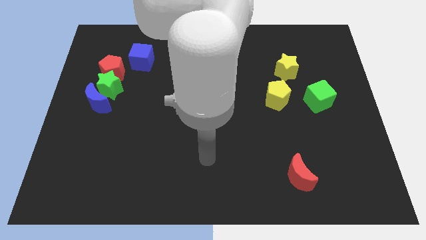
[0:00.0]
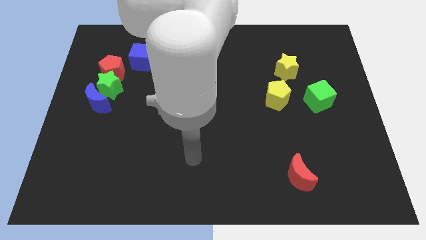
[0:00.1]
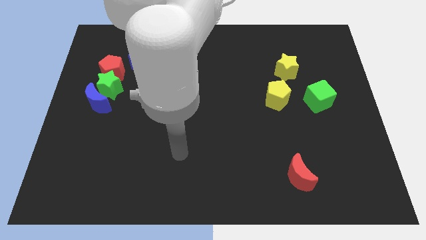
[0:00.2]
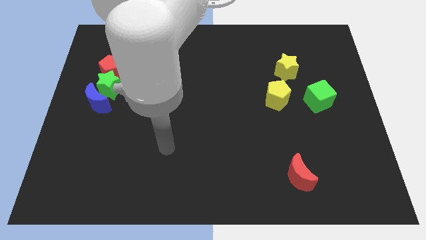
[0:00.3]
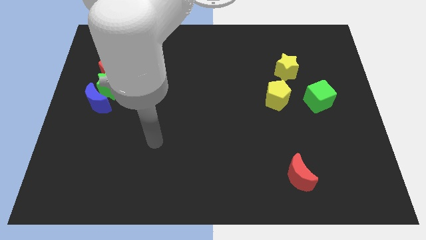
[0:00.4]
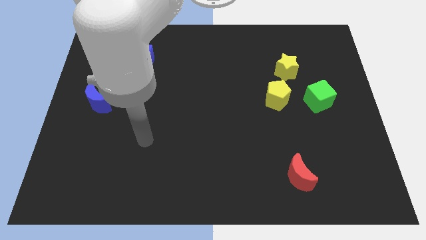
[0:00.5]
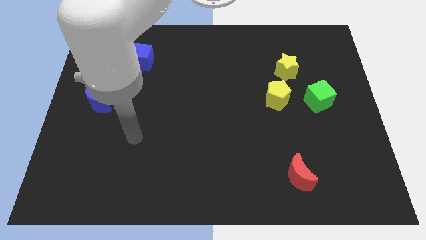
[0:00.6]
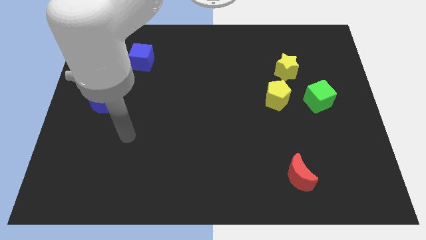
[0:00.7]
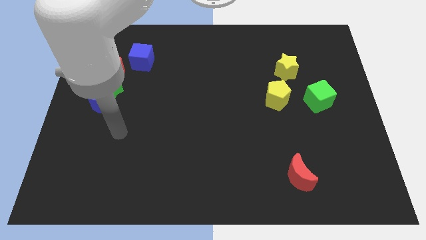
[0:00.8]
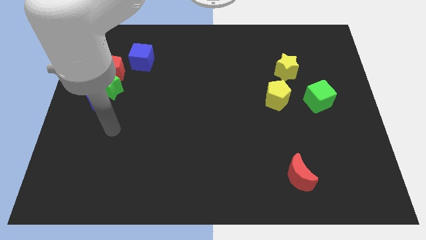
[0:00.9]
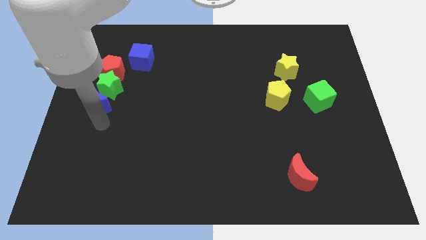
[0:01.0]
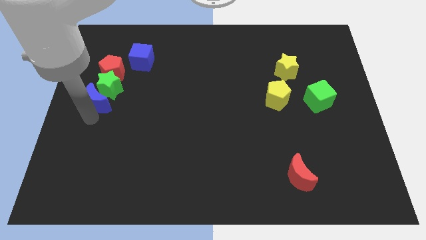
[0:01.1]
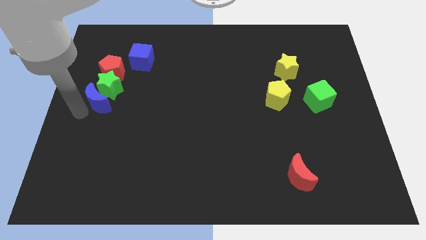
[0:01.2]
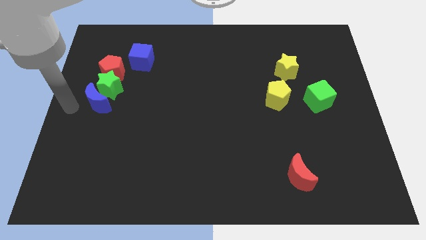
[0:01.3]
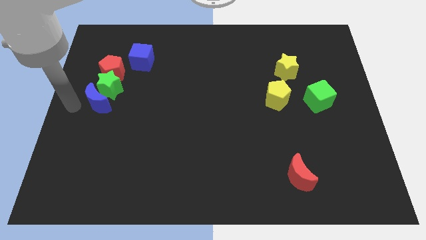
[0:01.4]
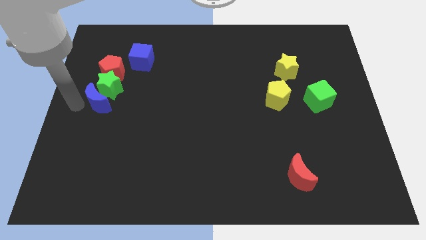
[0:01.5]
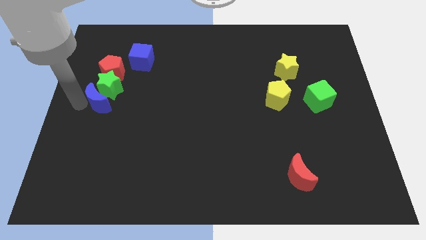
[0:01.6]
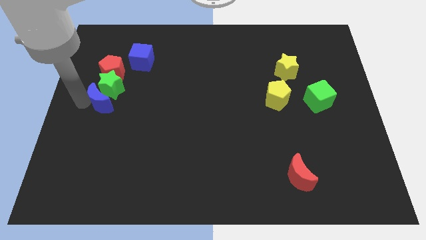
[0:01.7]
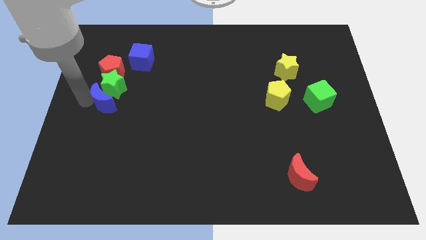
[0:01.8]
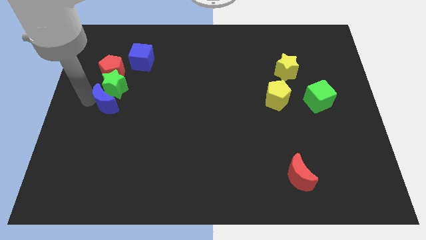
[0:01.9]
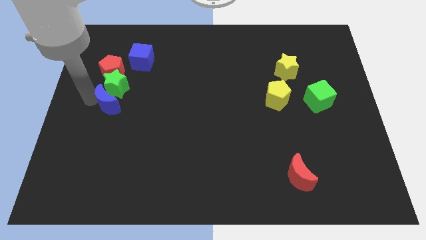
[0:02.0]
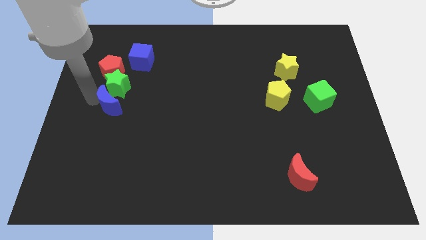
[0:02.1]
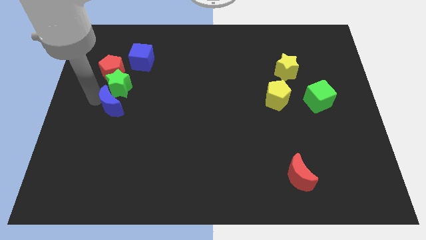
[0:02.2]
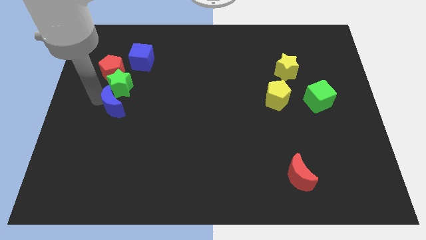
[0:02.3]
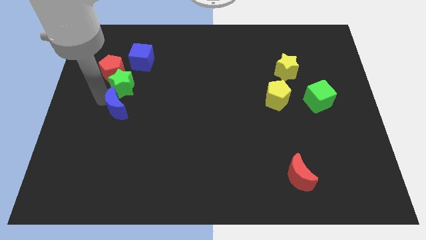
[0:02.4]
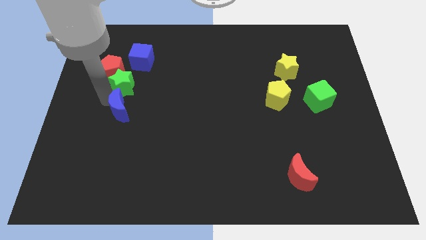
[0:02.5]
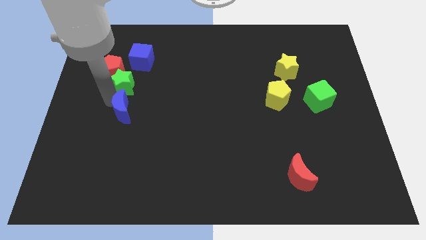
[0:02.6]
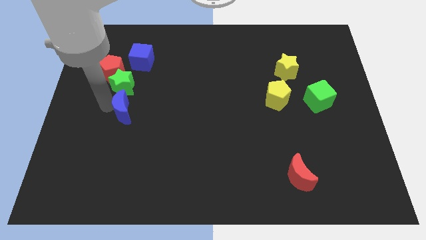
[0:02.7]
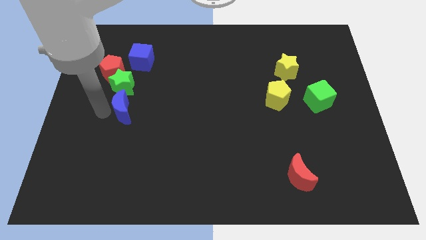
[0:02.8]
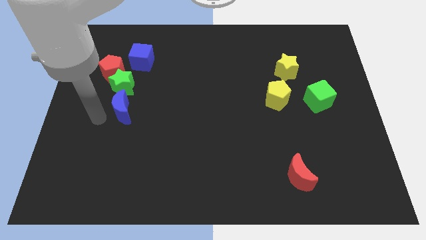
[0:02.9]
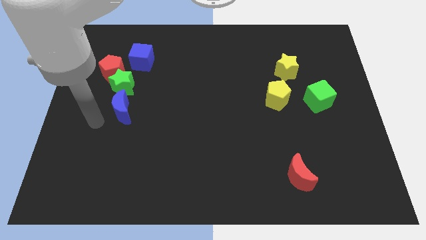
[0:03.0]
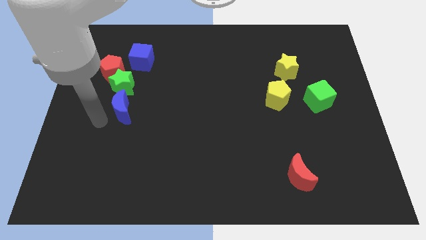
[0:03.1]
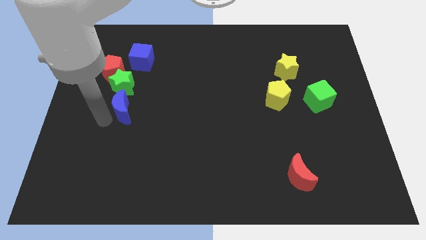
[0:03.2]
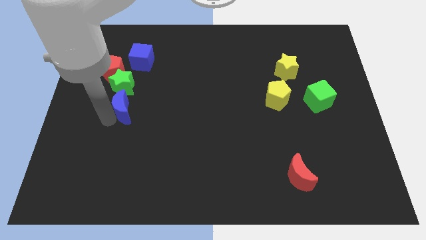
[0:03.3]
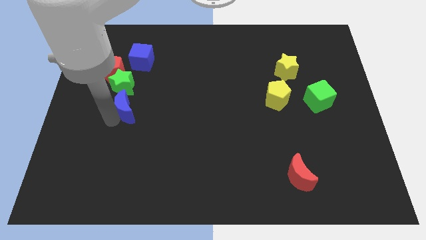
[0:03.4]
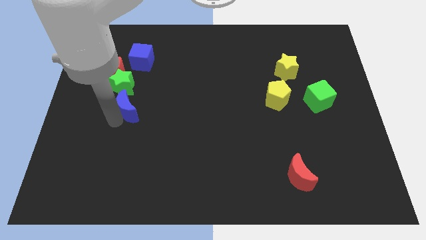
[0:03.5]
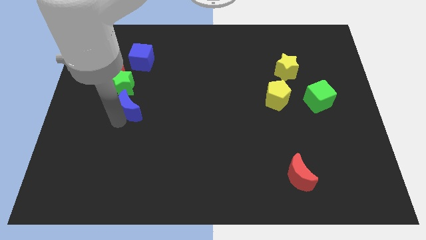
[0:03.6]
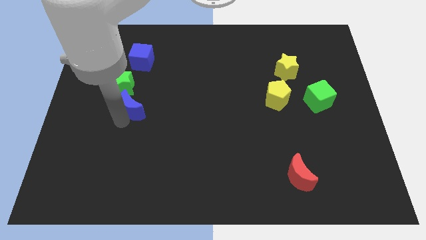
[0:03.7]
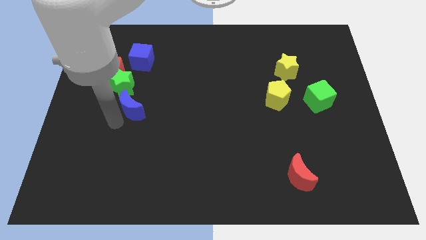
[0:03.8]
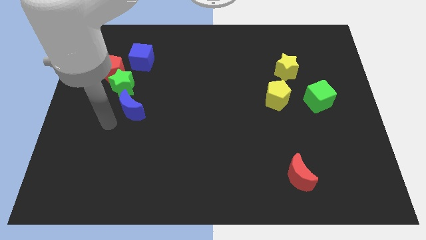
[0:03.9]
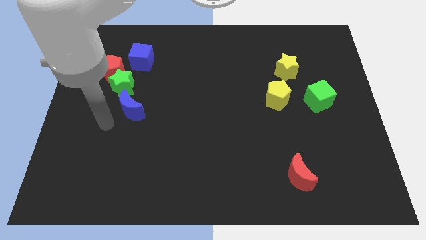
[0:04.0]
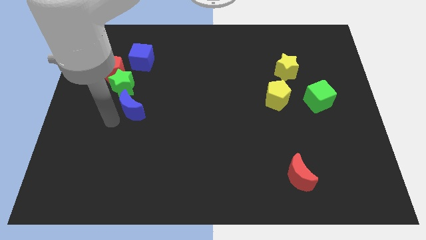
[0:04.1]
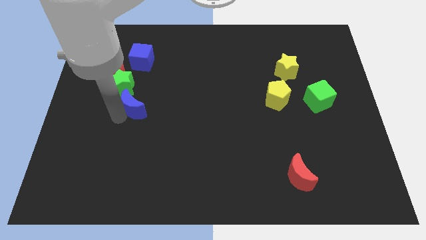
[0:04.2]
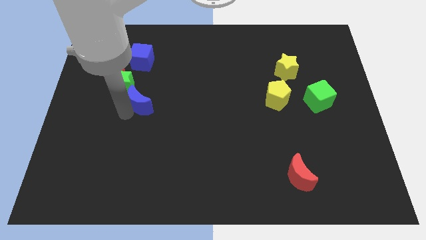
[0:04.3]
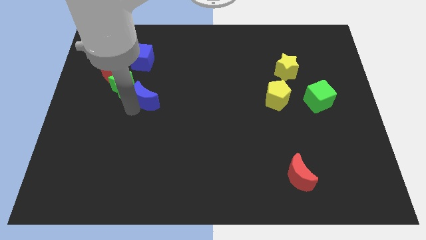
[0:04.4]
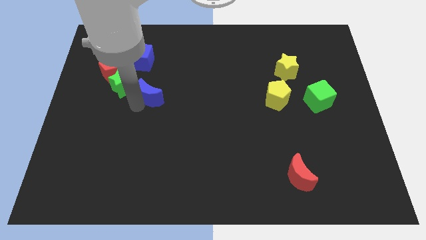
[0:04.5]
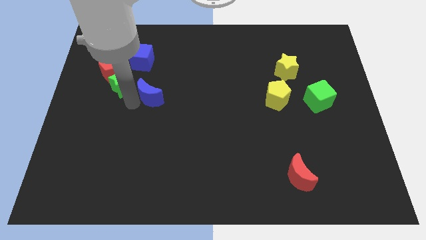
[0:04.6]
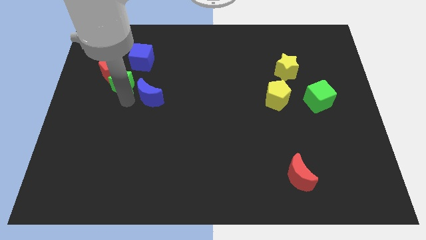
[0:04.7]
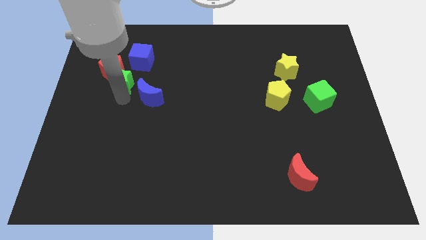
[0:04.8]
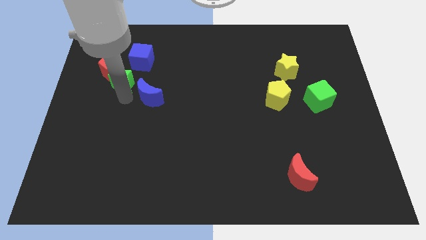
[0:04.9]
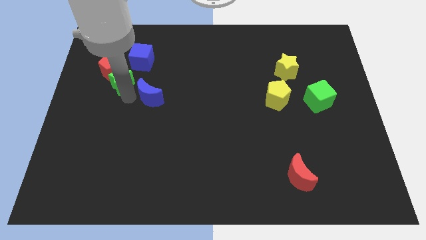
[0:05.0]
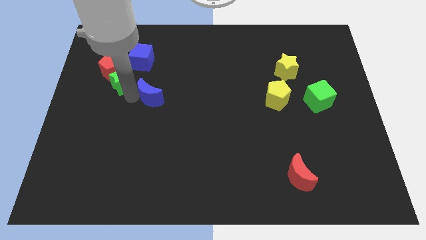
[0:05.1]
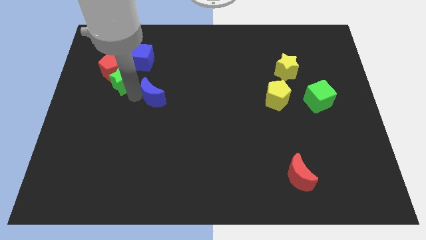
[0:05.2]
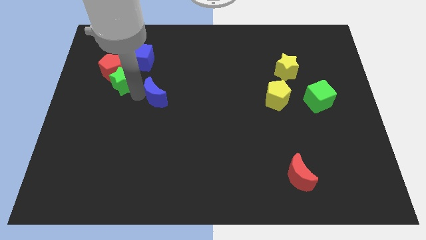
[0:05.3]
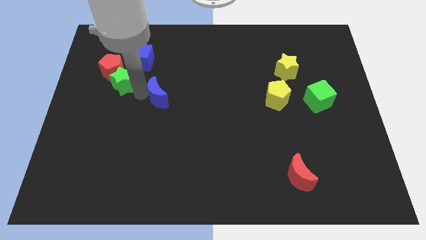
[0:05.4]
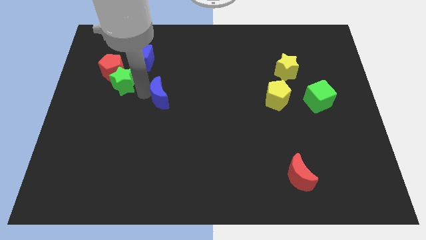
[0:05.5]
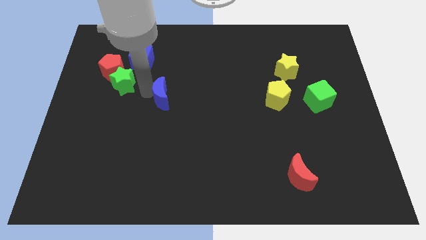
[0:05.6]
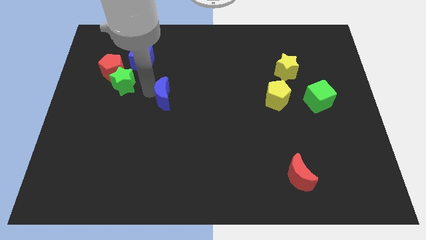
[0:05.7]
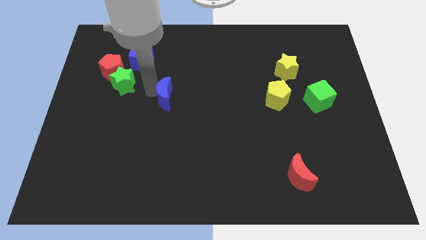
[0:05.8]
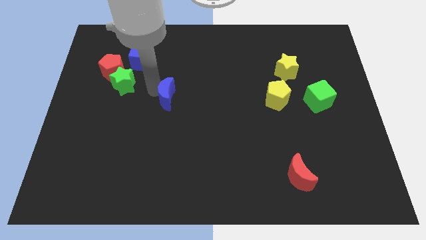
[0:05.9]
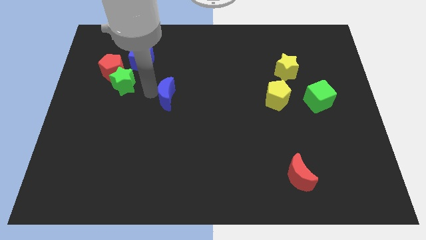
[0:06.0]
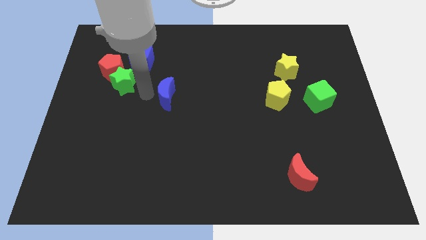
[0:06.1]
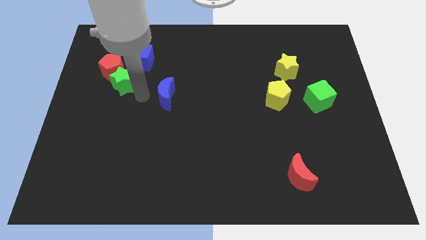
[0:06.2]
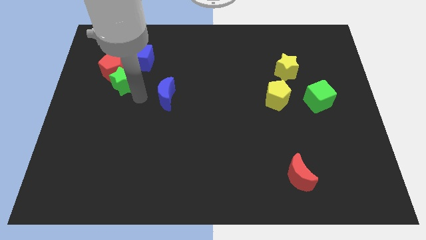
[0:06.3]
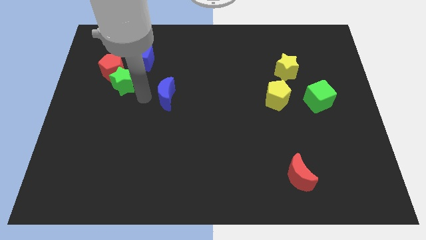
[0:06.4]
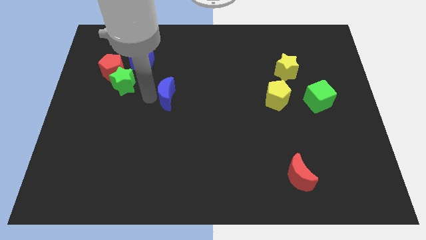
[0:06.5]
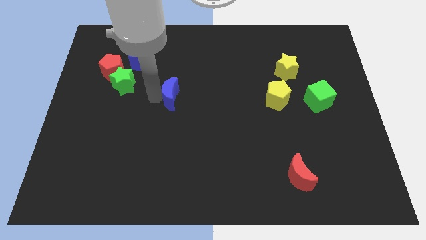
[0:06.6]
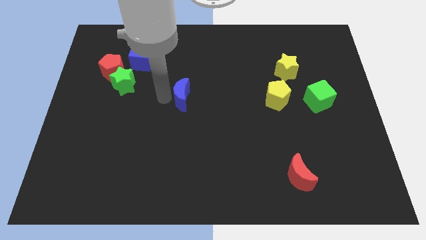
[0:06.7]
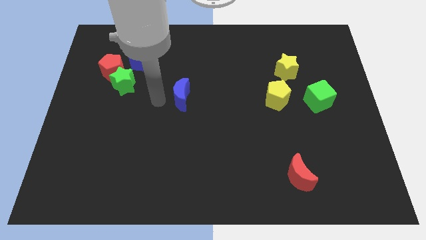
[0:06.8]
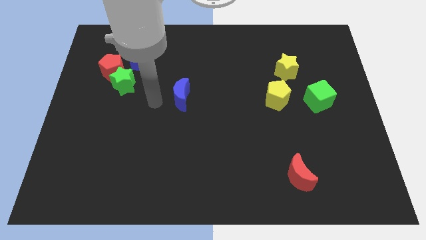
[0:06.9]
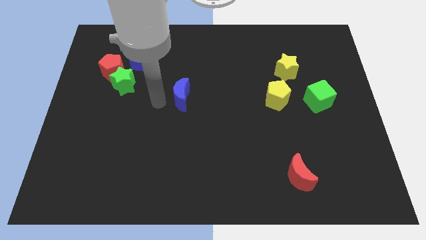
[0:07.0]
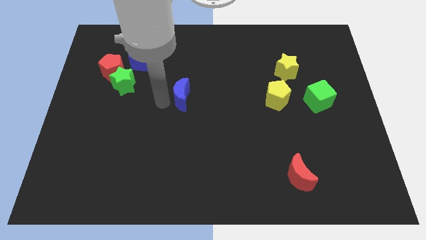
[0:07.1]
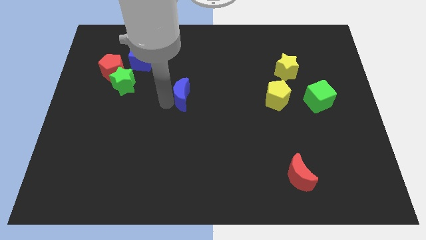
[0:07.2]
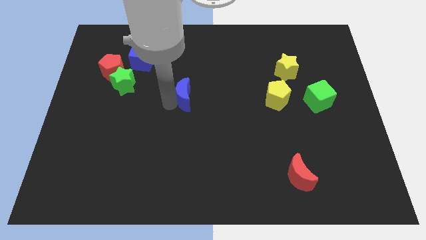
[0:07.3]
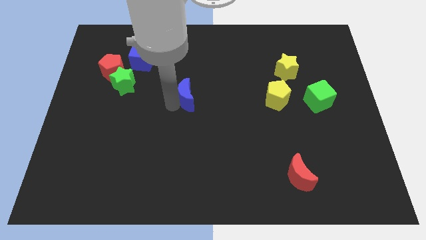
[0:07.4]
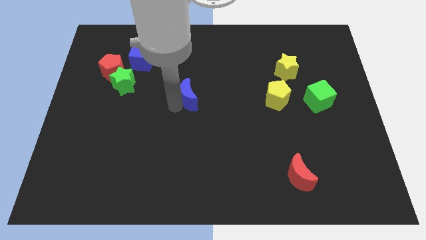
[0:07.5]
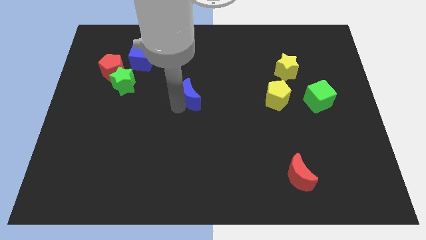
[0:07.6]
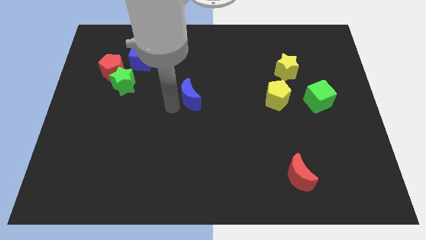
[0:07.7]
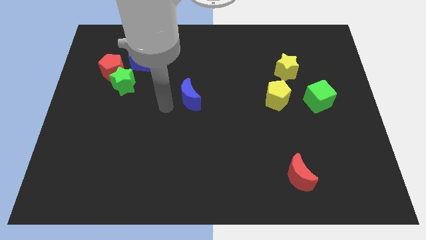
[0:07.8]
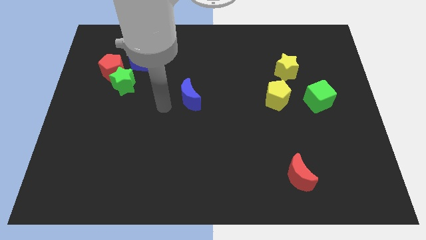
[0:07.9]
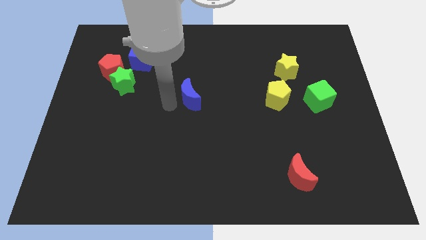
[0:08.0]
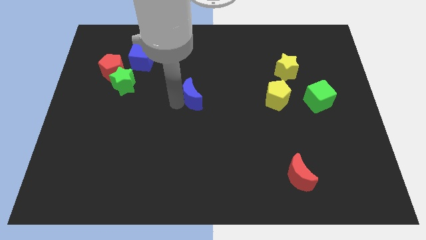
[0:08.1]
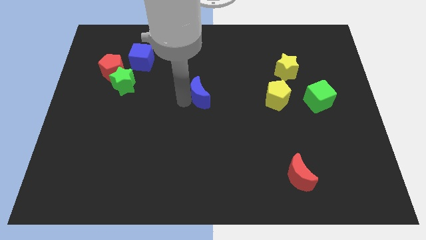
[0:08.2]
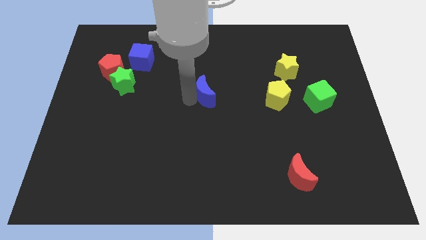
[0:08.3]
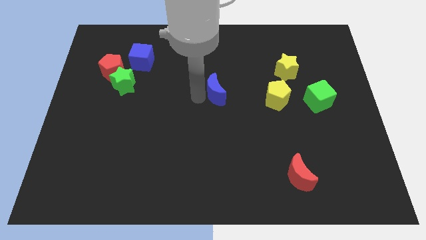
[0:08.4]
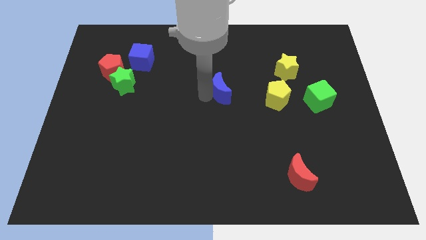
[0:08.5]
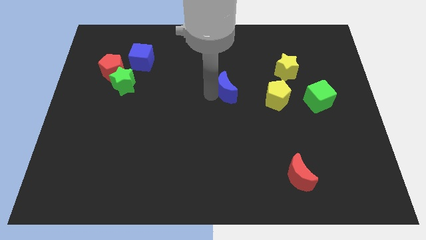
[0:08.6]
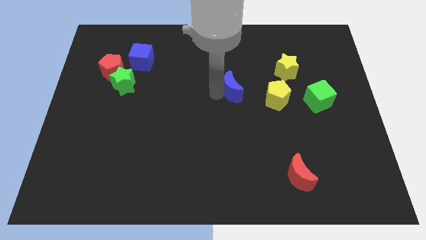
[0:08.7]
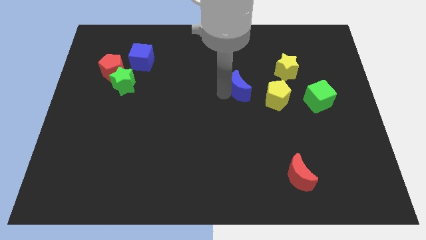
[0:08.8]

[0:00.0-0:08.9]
move the blue moon to the top left side of the yellow pentagon
